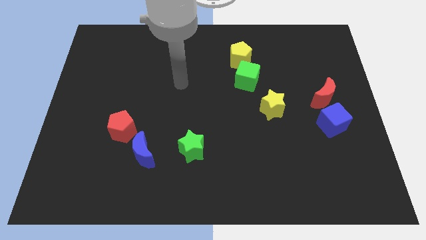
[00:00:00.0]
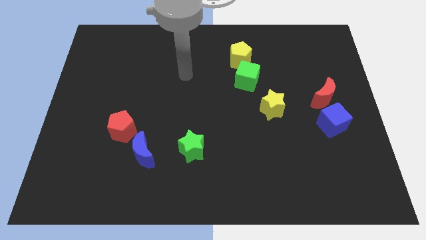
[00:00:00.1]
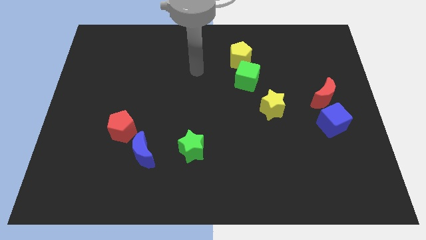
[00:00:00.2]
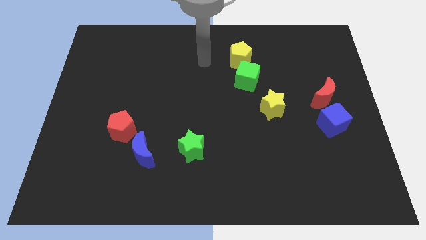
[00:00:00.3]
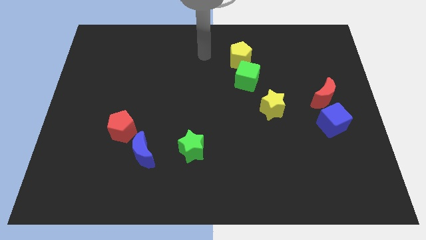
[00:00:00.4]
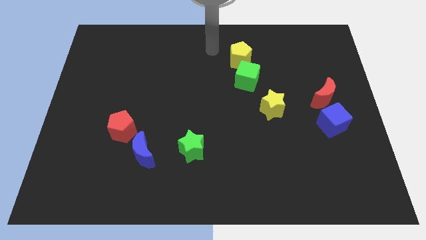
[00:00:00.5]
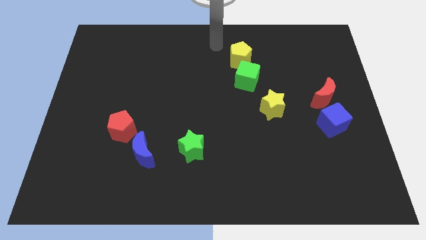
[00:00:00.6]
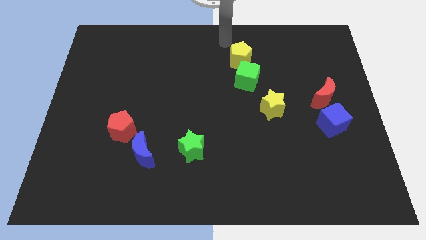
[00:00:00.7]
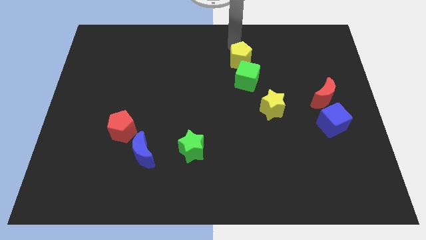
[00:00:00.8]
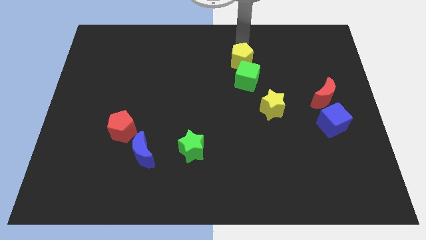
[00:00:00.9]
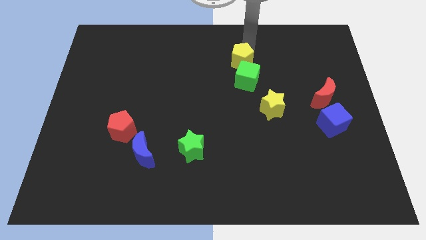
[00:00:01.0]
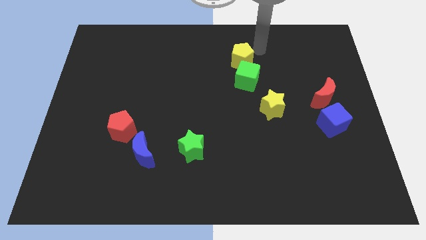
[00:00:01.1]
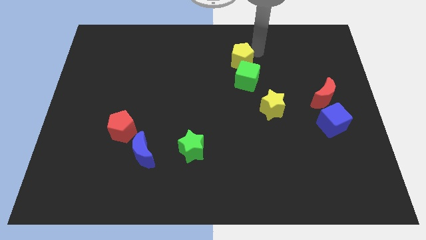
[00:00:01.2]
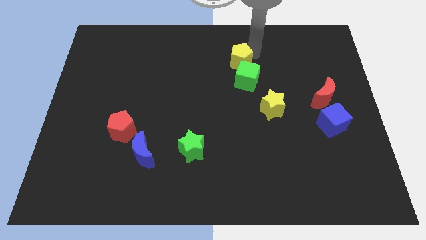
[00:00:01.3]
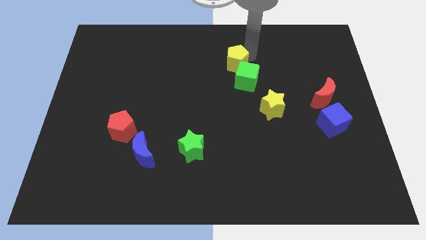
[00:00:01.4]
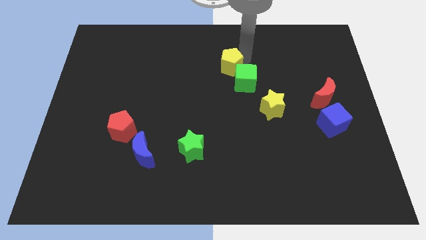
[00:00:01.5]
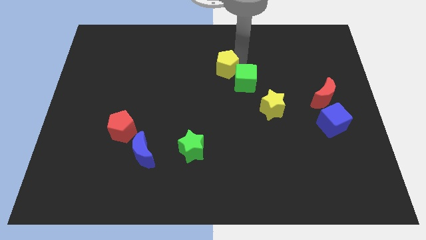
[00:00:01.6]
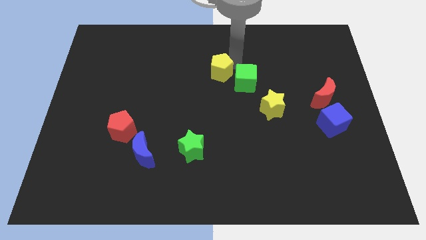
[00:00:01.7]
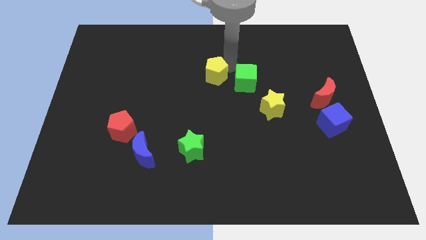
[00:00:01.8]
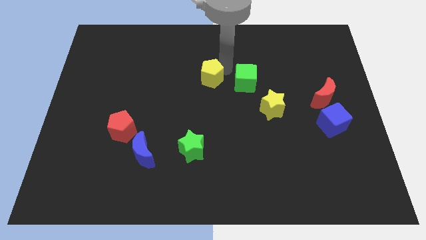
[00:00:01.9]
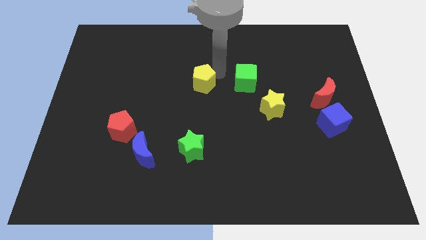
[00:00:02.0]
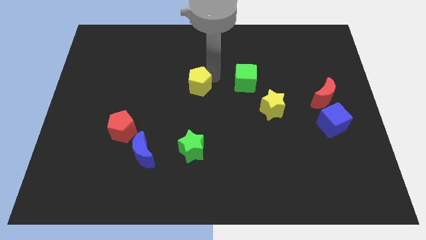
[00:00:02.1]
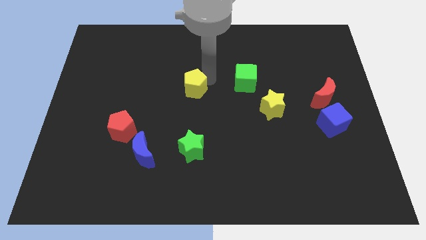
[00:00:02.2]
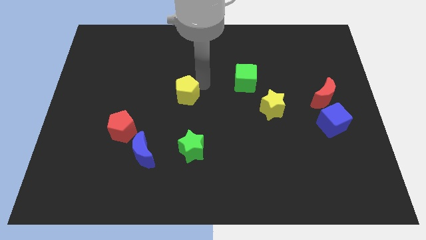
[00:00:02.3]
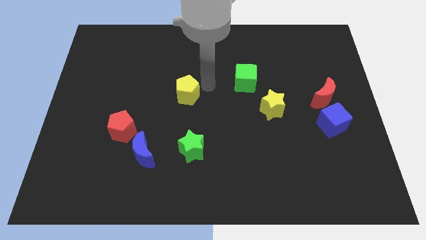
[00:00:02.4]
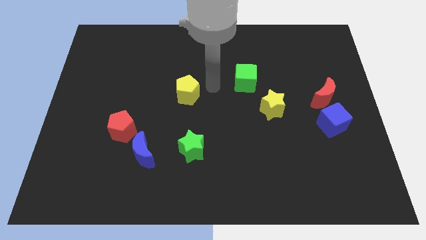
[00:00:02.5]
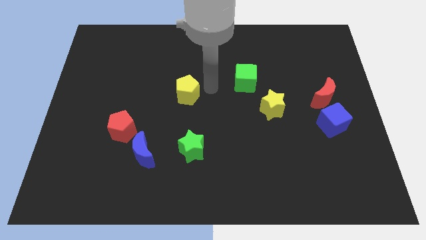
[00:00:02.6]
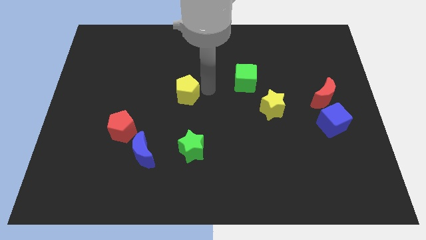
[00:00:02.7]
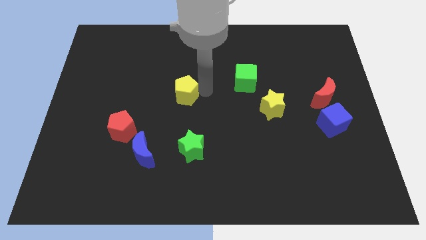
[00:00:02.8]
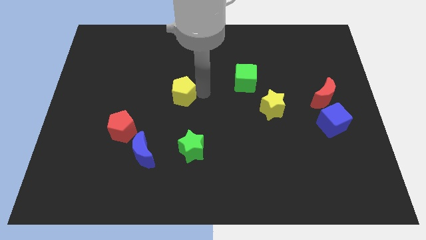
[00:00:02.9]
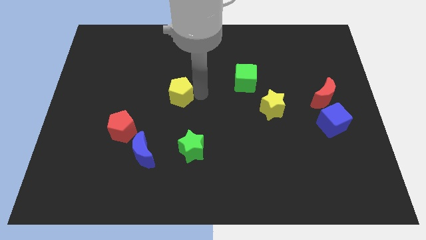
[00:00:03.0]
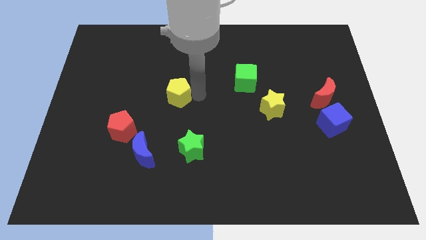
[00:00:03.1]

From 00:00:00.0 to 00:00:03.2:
move the yellow pentagon down and to the left

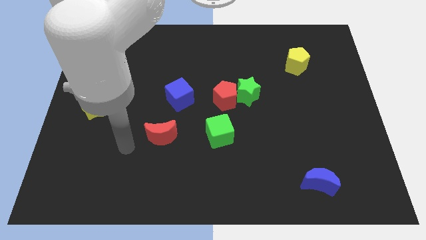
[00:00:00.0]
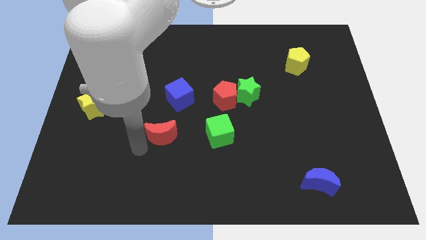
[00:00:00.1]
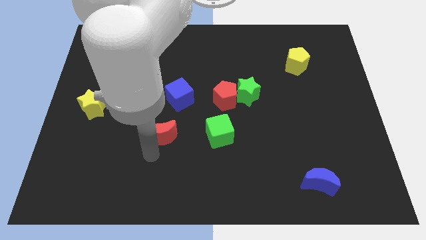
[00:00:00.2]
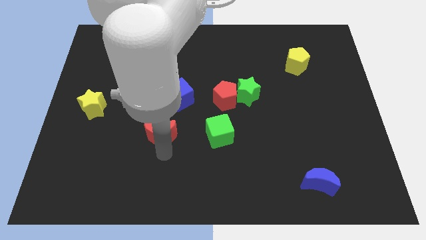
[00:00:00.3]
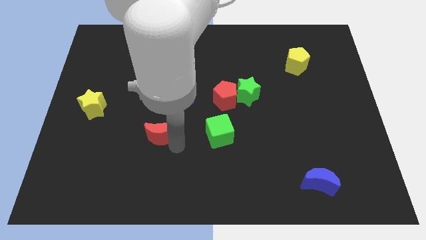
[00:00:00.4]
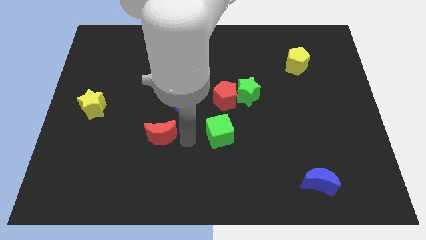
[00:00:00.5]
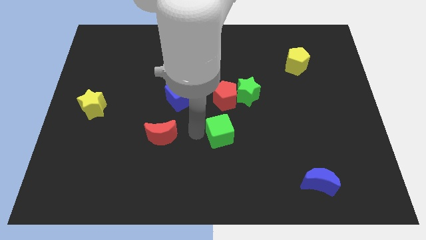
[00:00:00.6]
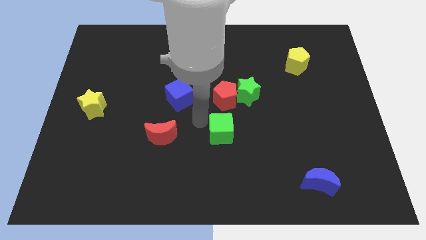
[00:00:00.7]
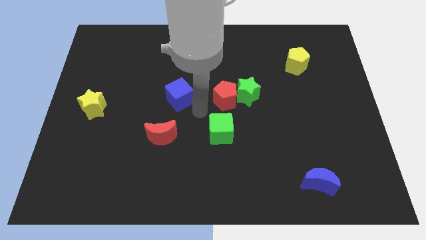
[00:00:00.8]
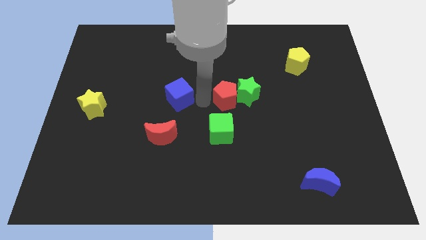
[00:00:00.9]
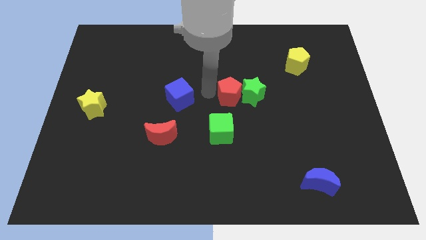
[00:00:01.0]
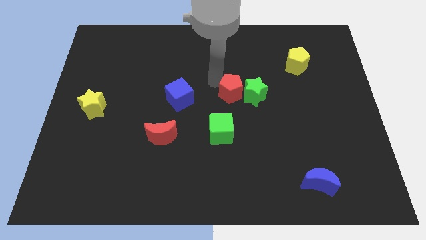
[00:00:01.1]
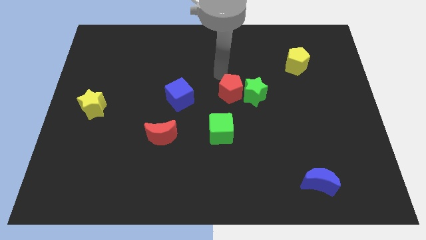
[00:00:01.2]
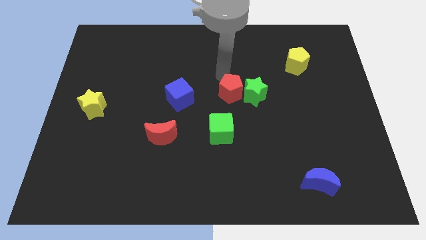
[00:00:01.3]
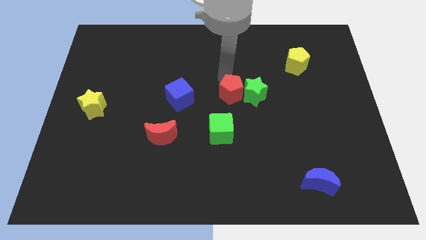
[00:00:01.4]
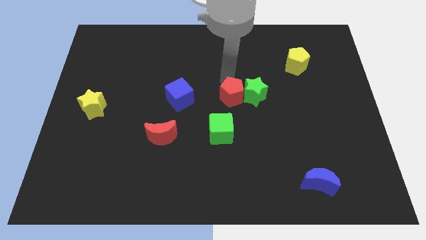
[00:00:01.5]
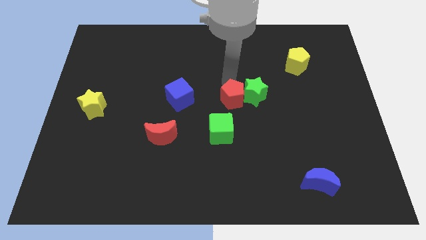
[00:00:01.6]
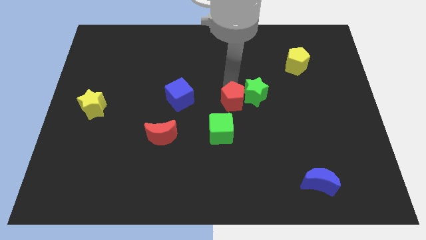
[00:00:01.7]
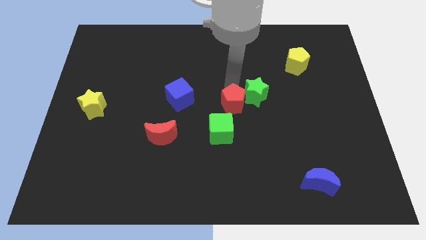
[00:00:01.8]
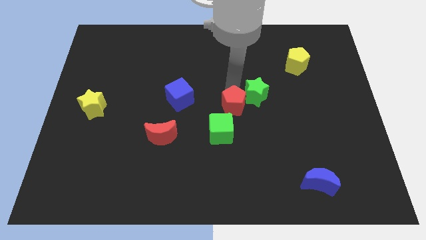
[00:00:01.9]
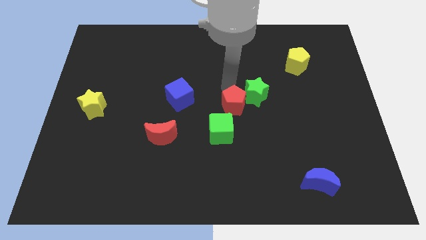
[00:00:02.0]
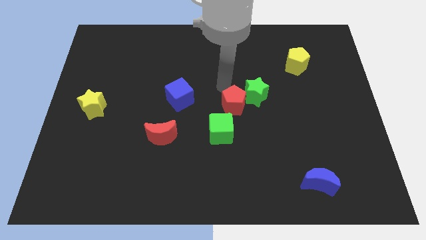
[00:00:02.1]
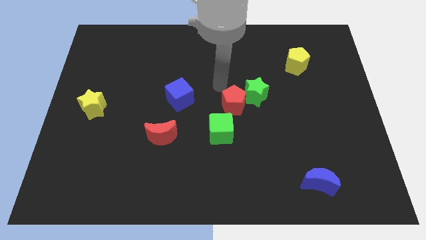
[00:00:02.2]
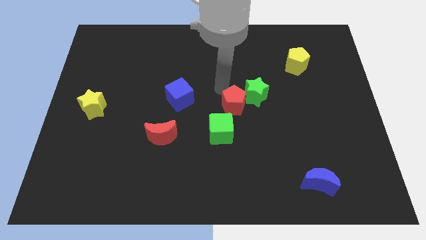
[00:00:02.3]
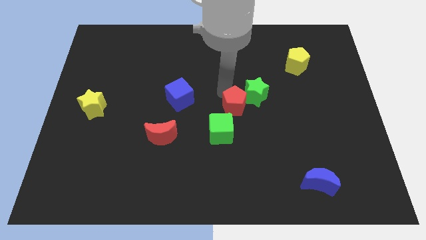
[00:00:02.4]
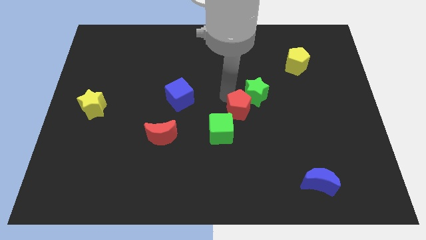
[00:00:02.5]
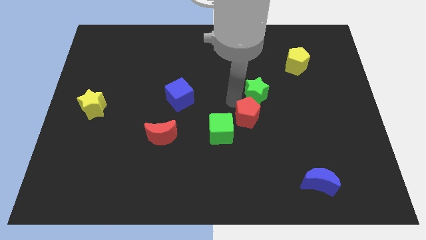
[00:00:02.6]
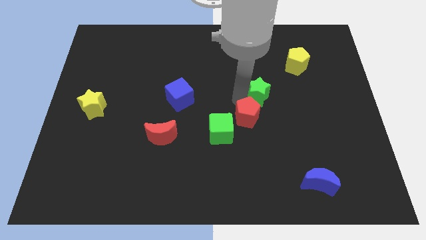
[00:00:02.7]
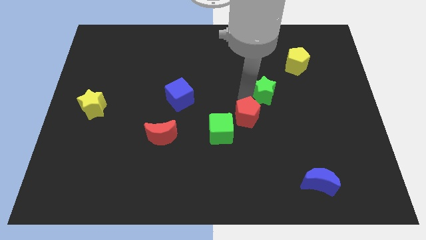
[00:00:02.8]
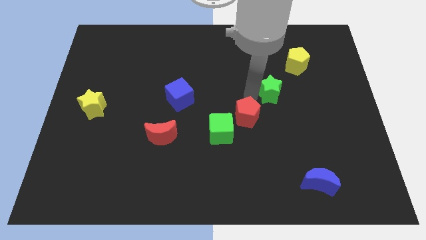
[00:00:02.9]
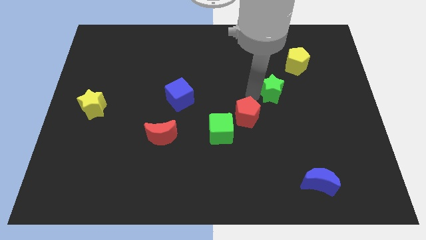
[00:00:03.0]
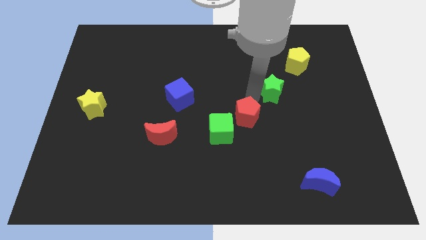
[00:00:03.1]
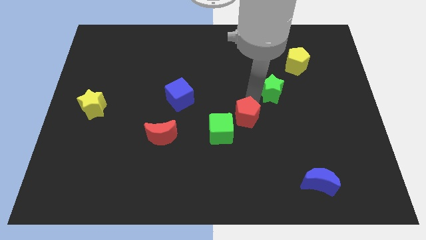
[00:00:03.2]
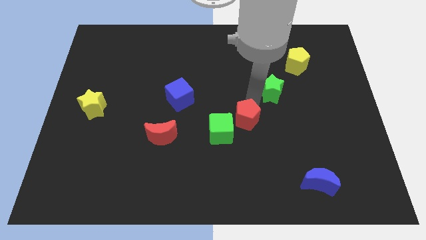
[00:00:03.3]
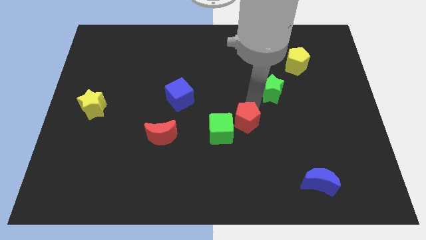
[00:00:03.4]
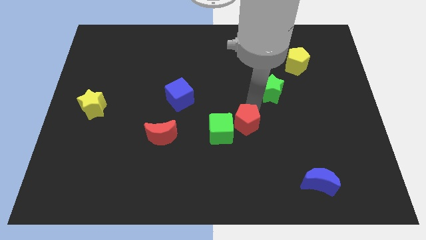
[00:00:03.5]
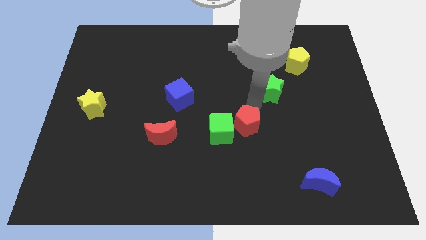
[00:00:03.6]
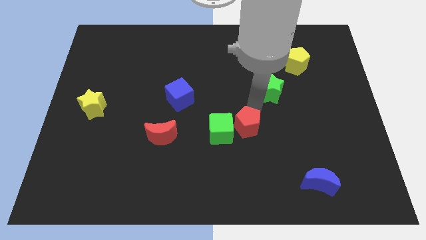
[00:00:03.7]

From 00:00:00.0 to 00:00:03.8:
move the red pentagon somewhat downwards

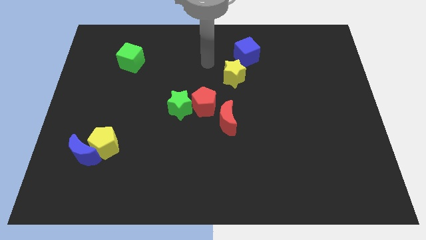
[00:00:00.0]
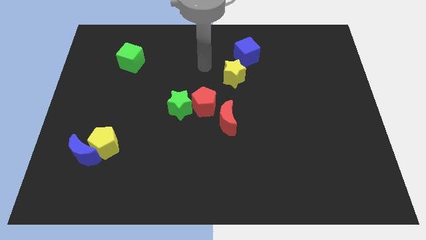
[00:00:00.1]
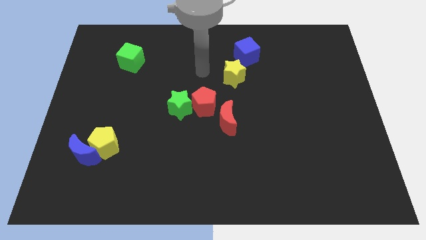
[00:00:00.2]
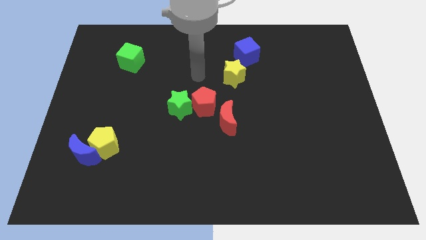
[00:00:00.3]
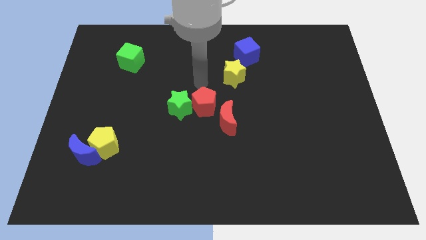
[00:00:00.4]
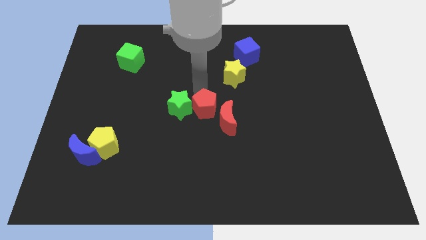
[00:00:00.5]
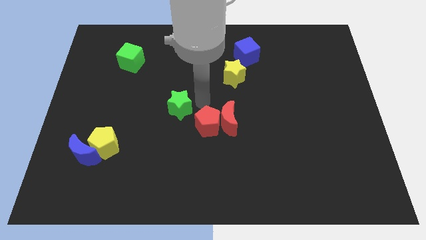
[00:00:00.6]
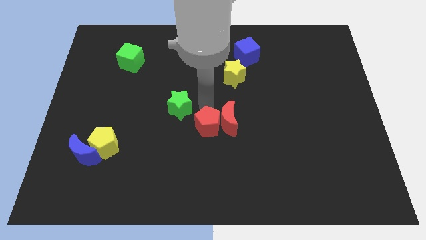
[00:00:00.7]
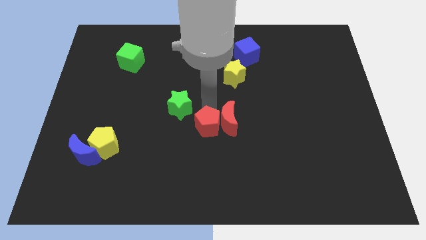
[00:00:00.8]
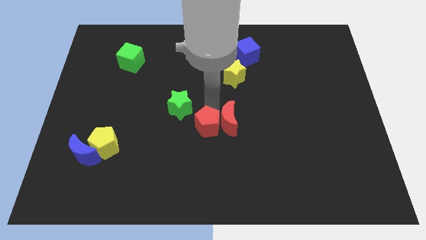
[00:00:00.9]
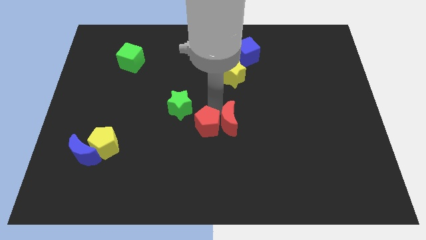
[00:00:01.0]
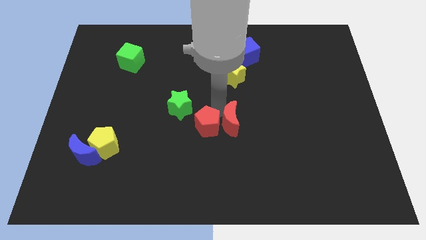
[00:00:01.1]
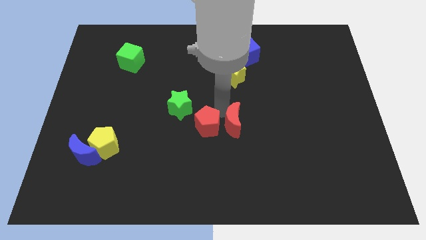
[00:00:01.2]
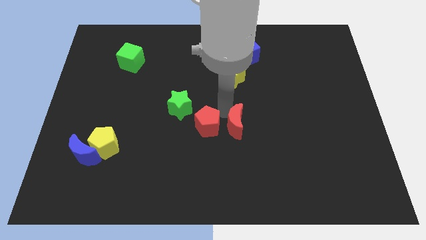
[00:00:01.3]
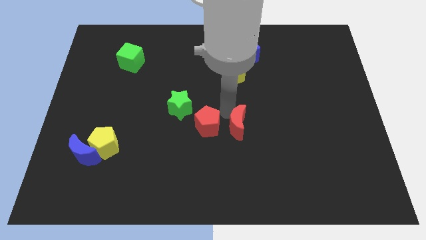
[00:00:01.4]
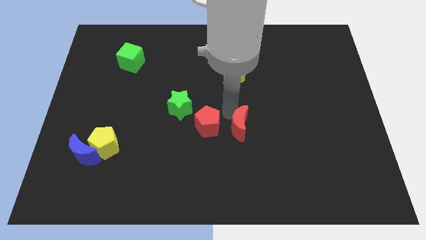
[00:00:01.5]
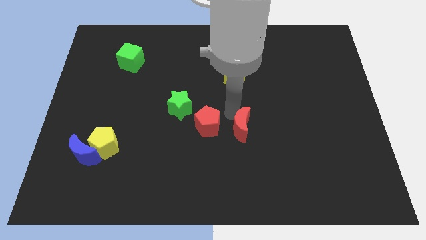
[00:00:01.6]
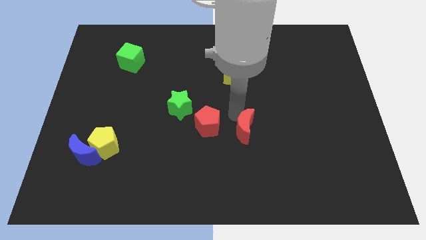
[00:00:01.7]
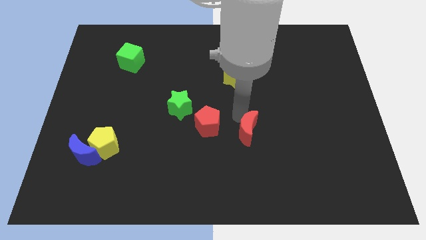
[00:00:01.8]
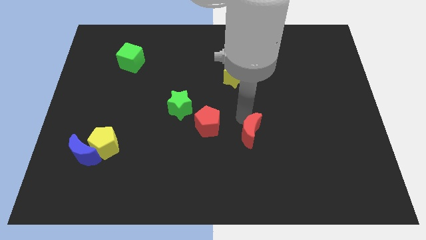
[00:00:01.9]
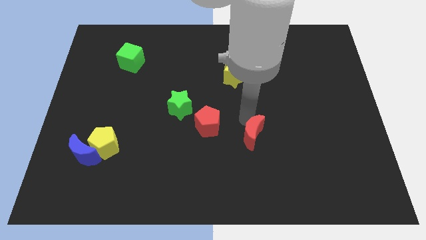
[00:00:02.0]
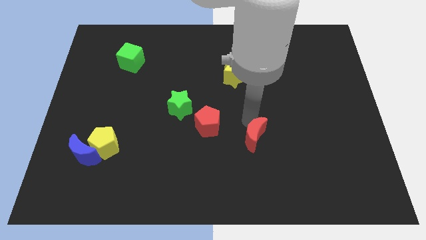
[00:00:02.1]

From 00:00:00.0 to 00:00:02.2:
move the red moon somewhat diagonally downwards and to the right
